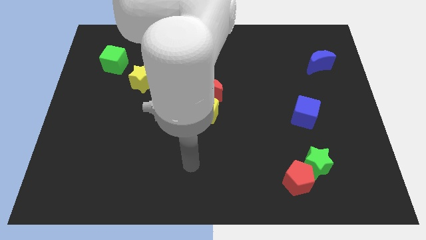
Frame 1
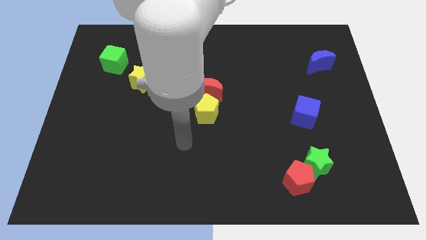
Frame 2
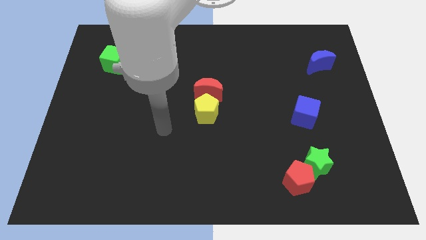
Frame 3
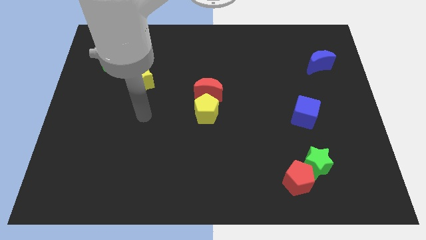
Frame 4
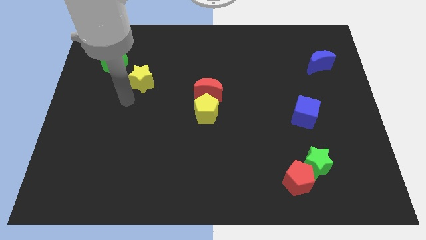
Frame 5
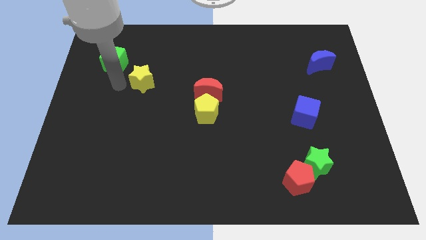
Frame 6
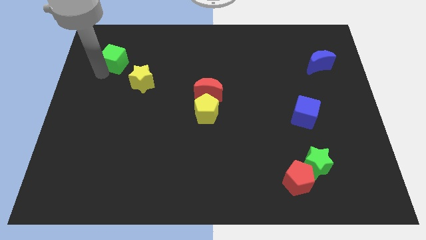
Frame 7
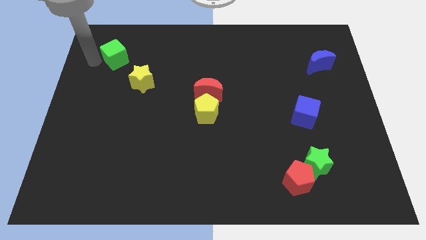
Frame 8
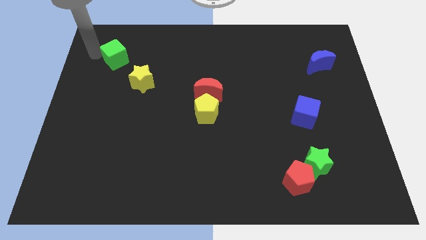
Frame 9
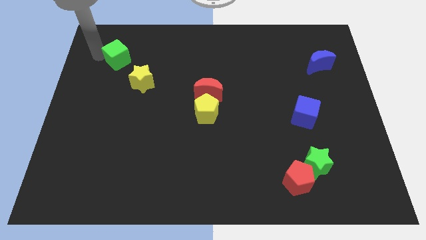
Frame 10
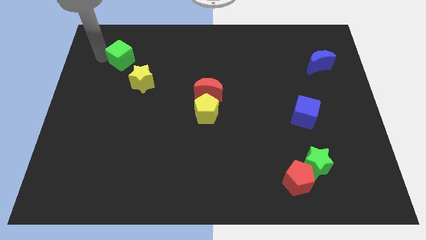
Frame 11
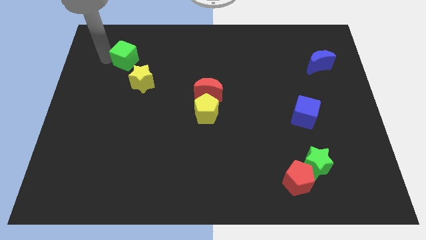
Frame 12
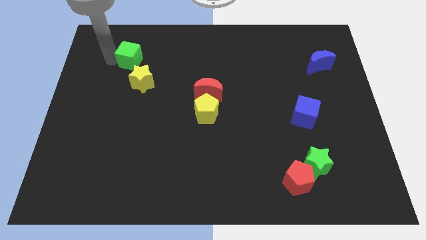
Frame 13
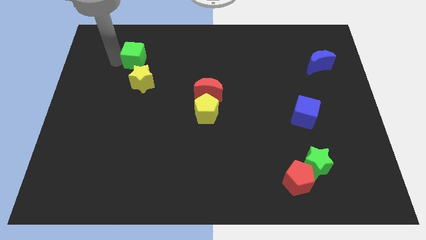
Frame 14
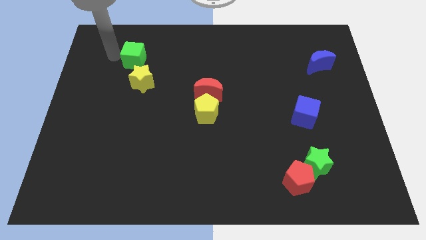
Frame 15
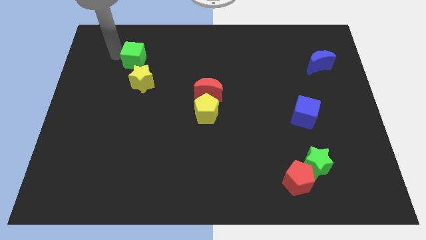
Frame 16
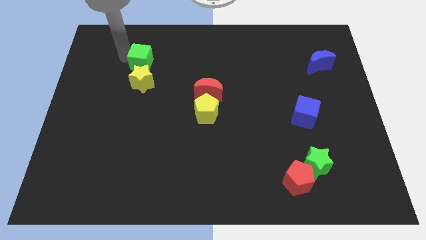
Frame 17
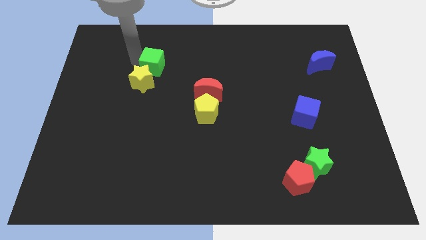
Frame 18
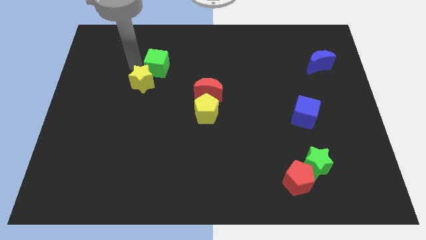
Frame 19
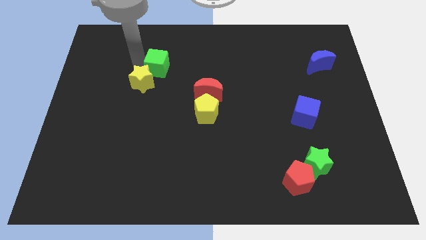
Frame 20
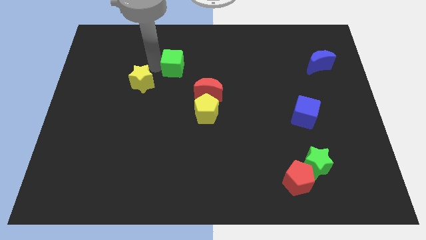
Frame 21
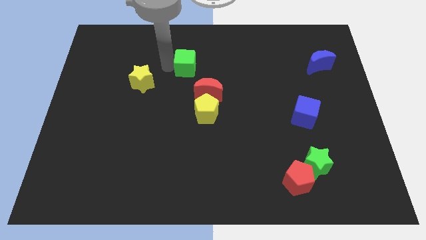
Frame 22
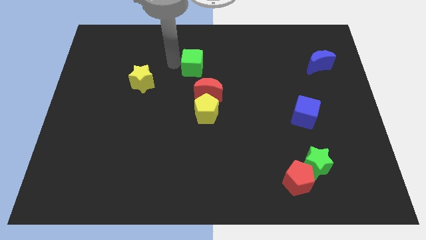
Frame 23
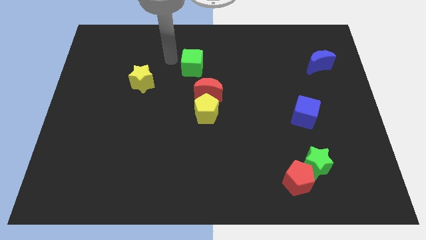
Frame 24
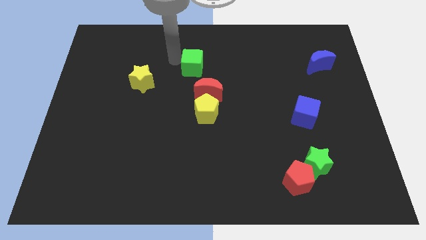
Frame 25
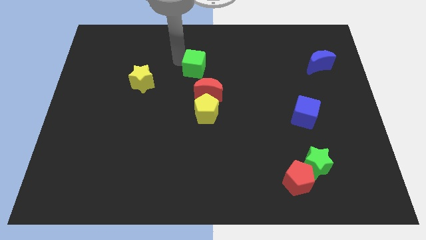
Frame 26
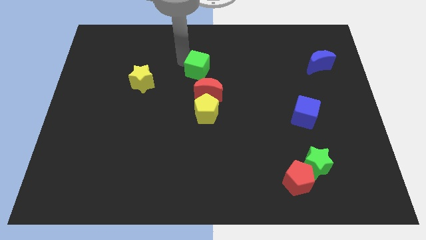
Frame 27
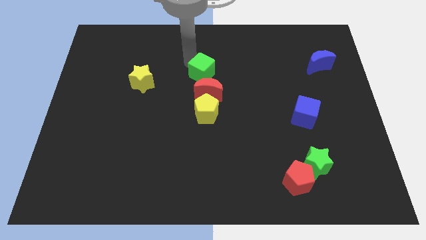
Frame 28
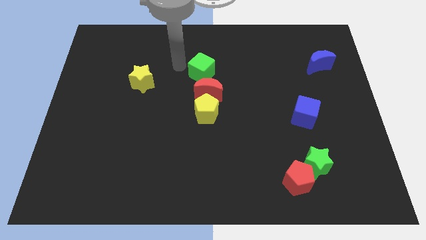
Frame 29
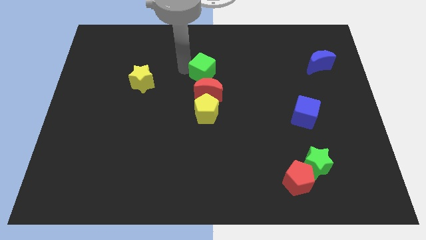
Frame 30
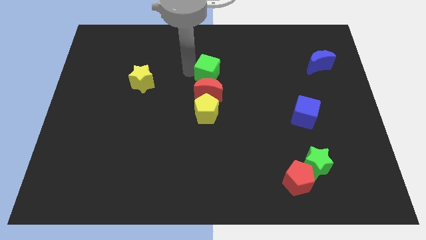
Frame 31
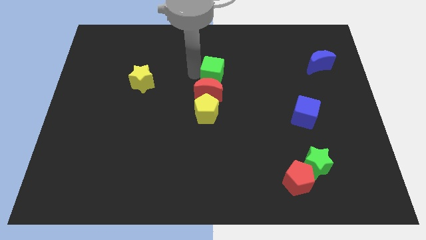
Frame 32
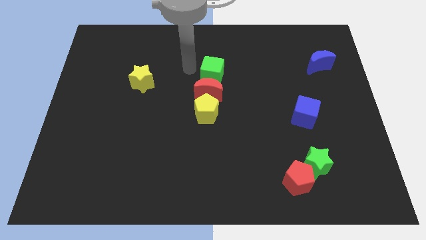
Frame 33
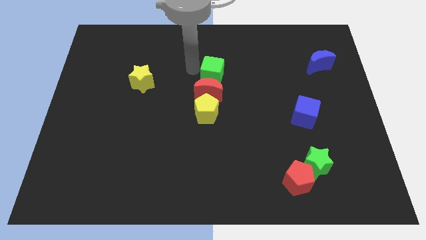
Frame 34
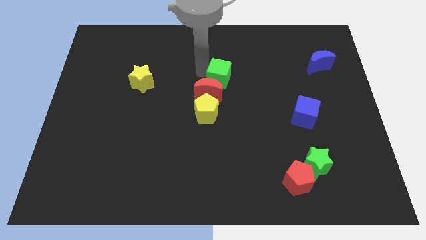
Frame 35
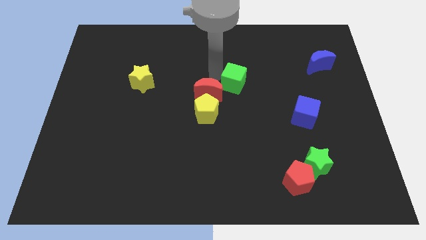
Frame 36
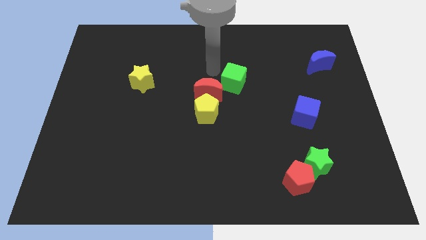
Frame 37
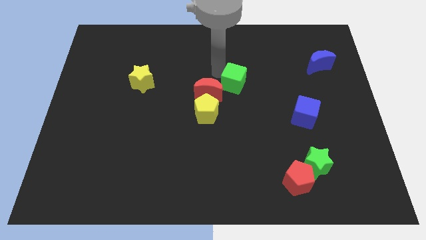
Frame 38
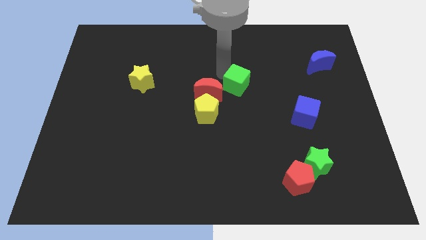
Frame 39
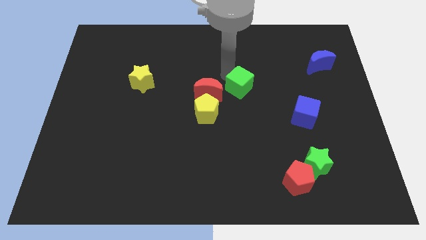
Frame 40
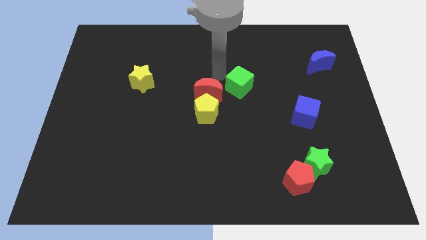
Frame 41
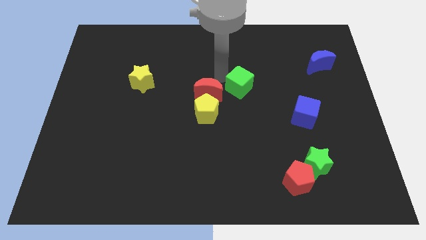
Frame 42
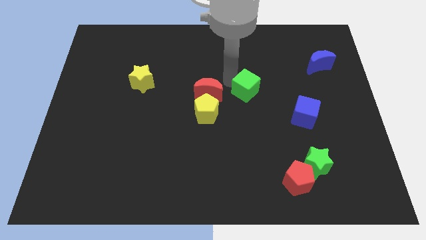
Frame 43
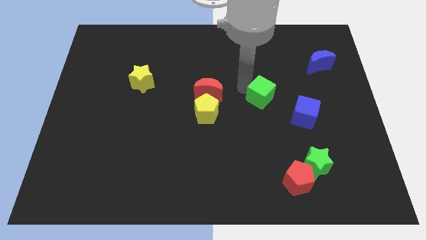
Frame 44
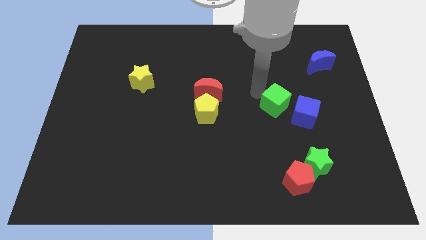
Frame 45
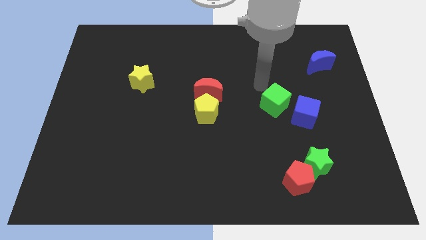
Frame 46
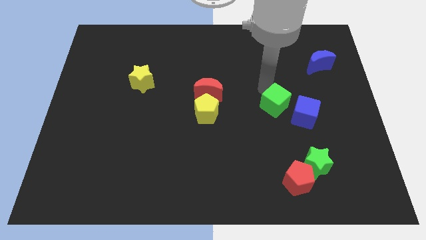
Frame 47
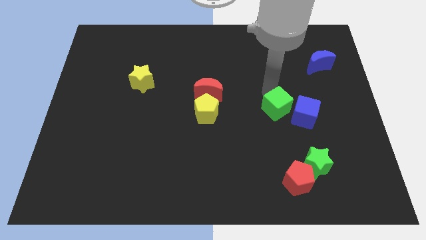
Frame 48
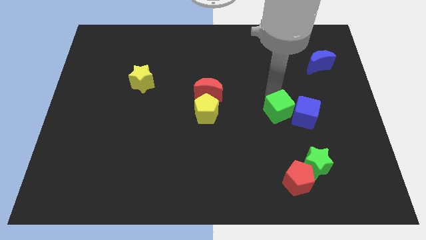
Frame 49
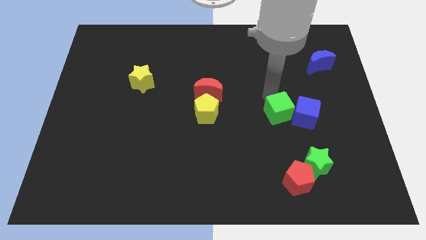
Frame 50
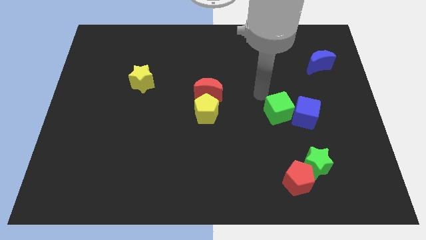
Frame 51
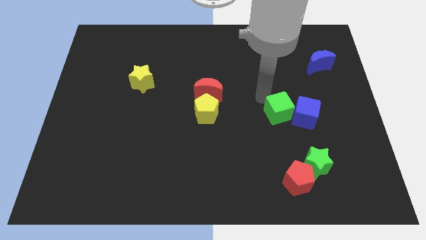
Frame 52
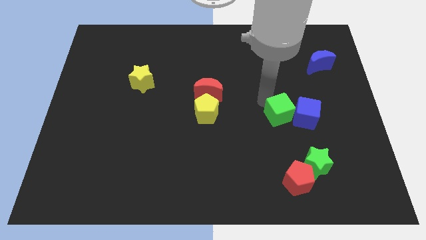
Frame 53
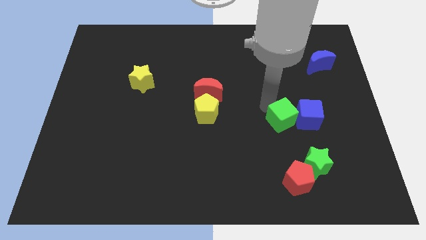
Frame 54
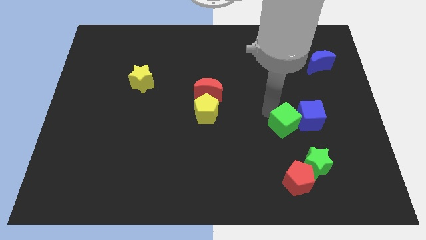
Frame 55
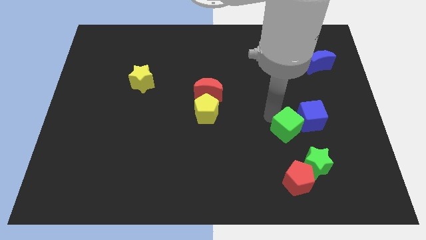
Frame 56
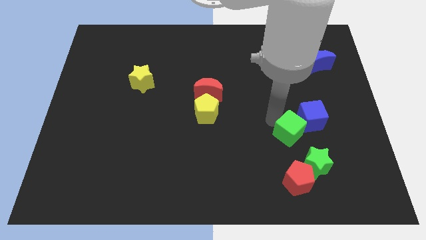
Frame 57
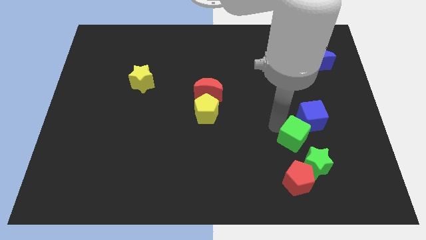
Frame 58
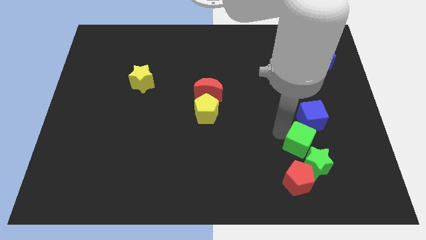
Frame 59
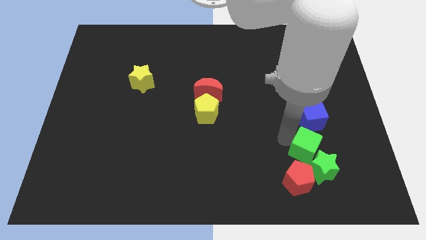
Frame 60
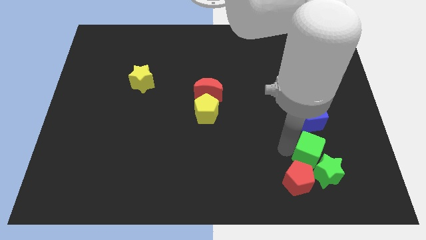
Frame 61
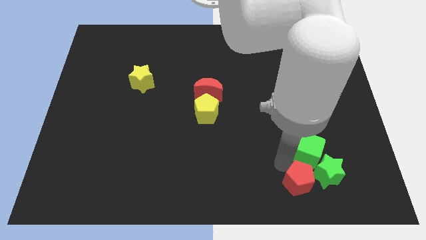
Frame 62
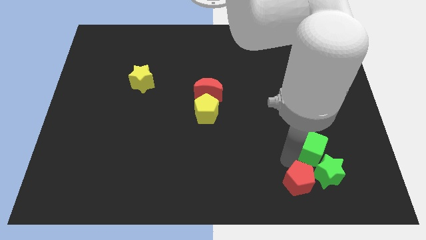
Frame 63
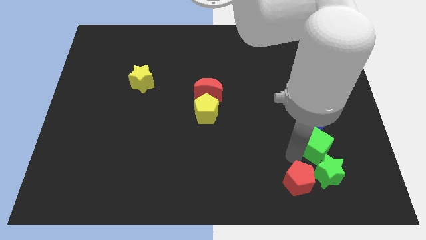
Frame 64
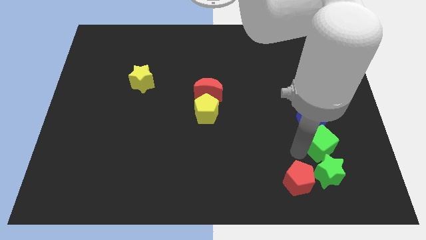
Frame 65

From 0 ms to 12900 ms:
move the green cube to the bottom right side of the blue cube

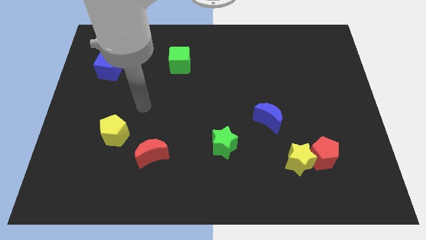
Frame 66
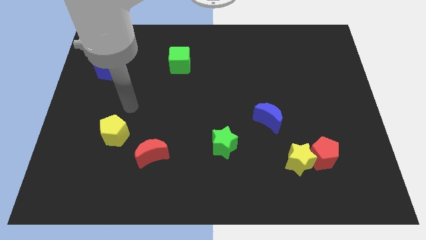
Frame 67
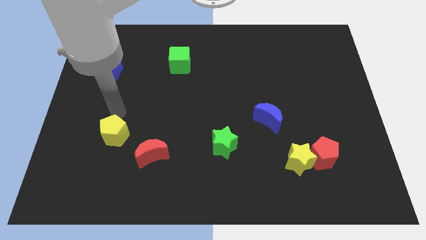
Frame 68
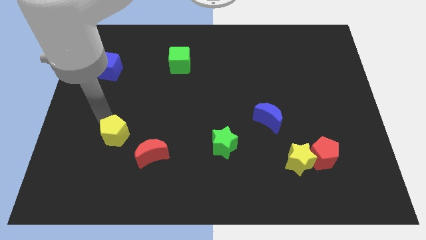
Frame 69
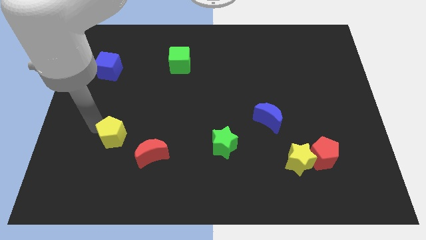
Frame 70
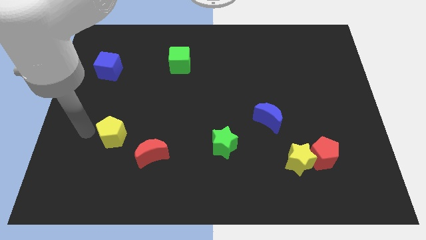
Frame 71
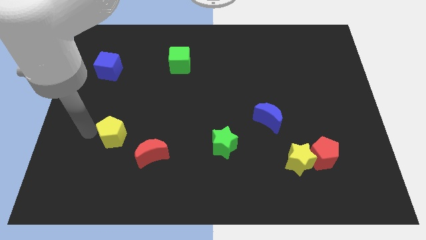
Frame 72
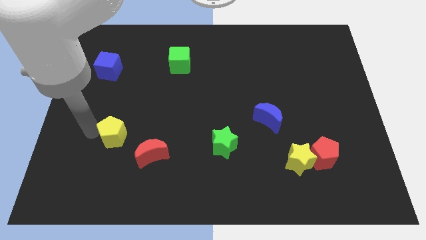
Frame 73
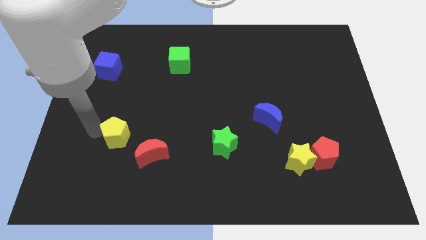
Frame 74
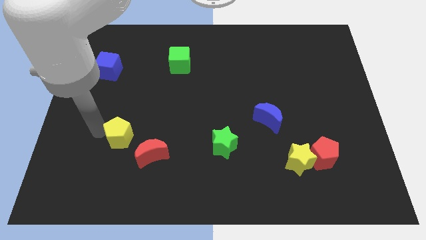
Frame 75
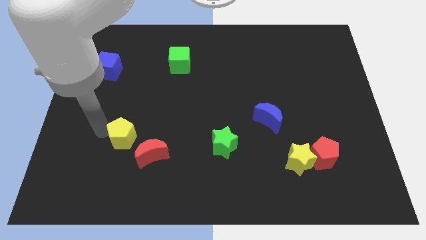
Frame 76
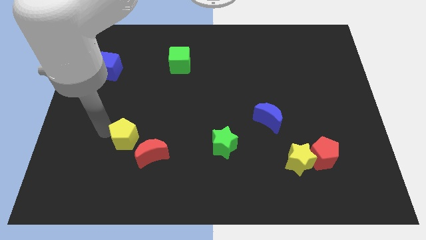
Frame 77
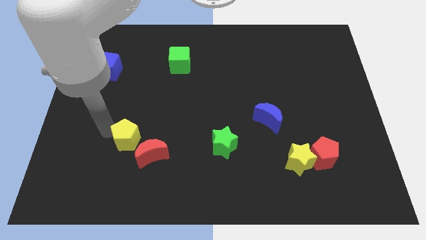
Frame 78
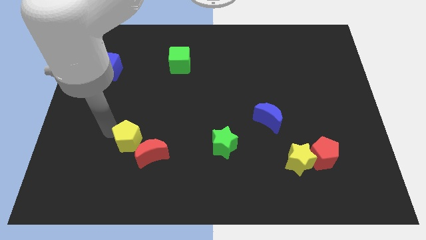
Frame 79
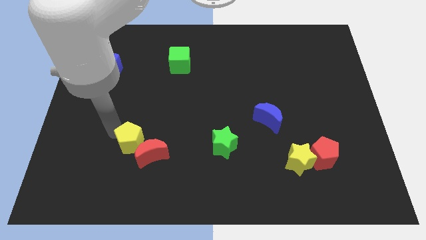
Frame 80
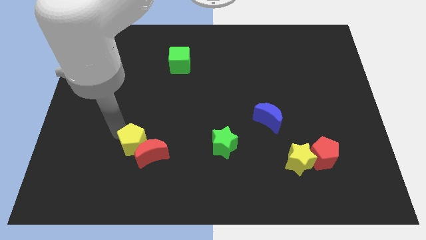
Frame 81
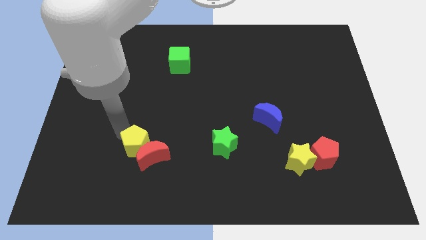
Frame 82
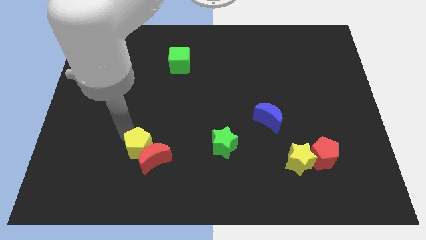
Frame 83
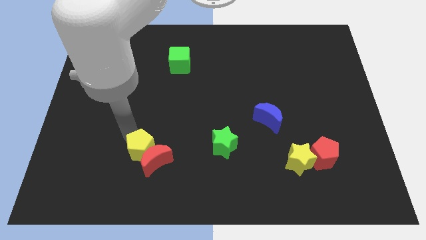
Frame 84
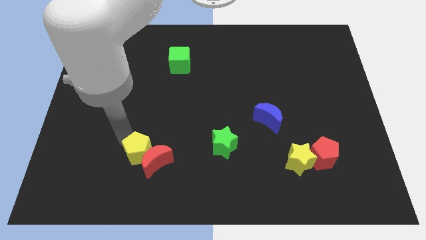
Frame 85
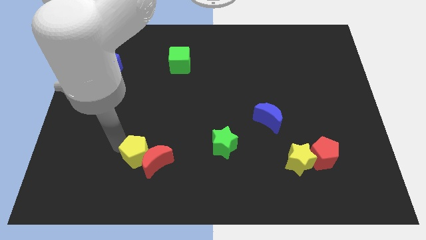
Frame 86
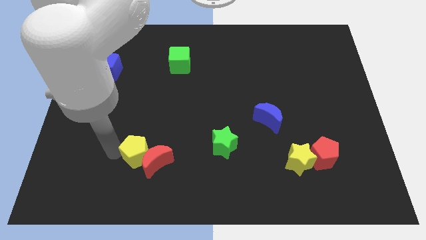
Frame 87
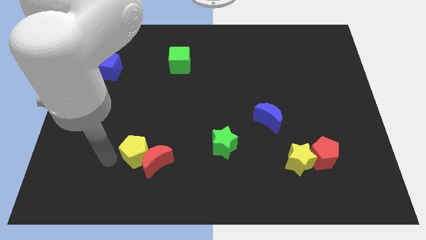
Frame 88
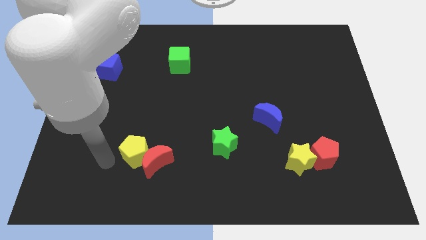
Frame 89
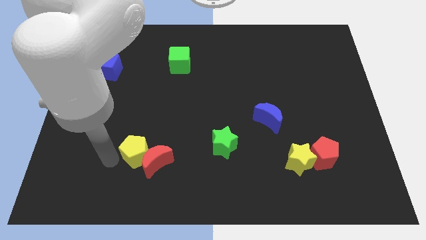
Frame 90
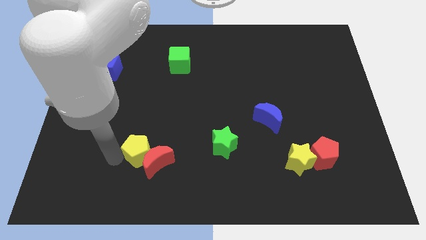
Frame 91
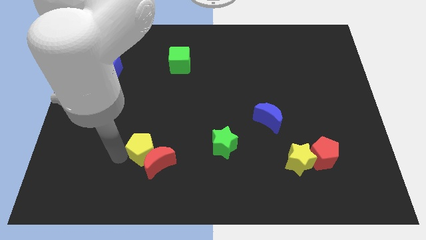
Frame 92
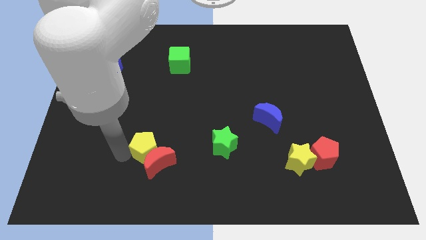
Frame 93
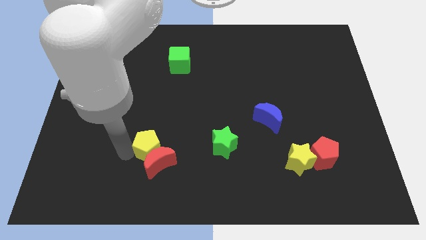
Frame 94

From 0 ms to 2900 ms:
move the yellow pentagon just left of the green star
